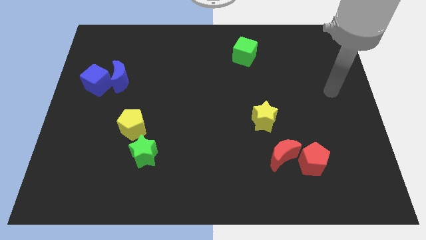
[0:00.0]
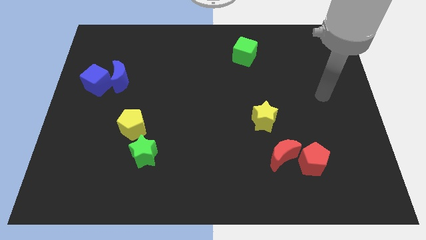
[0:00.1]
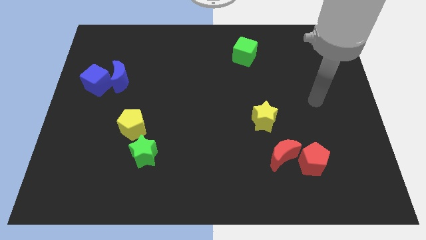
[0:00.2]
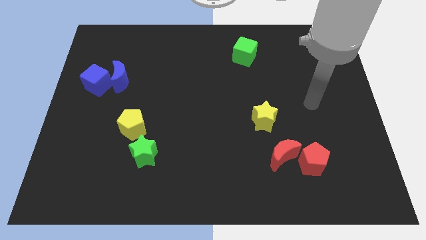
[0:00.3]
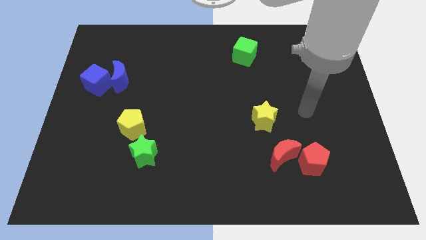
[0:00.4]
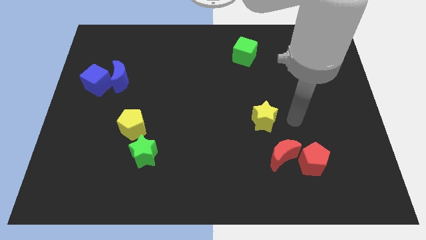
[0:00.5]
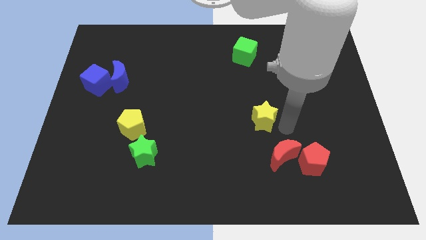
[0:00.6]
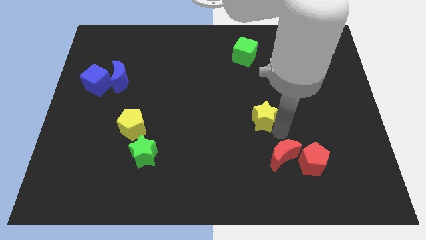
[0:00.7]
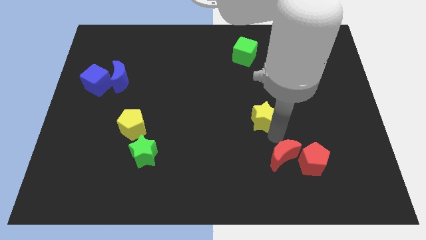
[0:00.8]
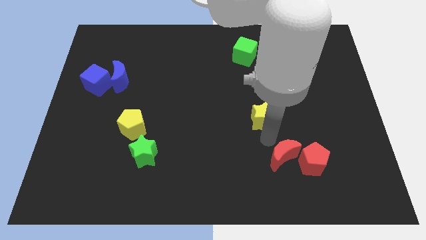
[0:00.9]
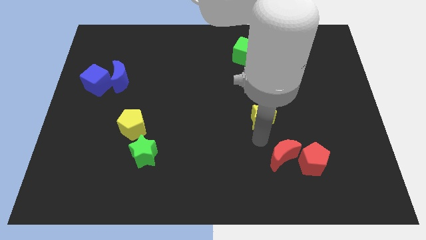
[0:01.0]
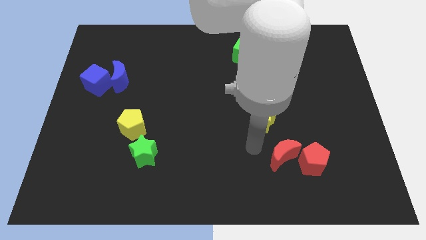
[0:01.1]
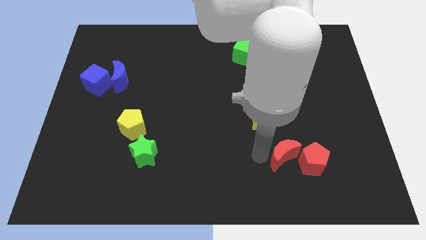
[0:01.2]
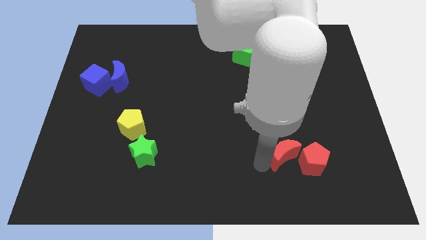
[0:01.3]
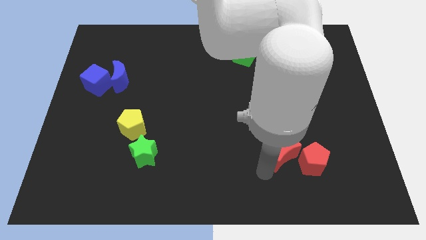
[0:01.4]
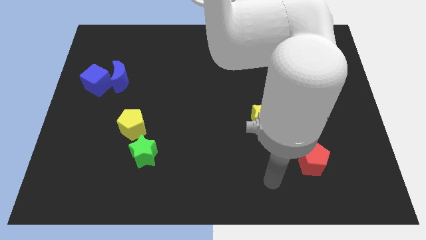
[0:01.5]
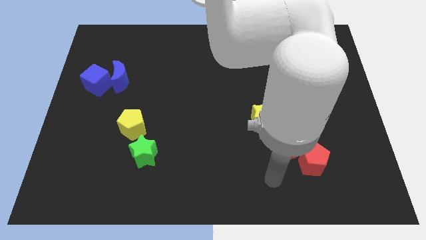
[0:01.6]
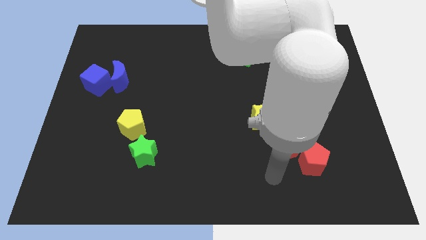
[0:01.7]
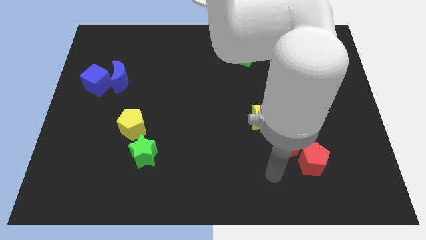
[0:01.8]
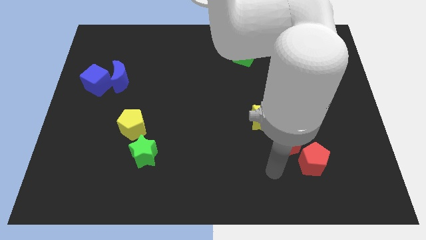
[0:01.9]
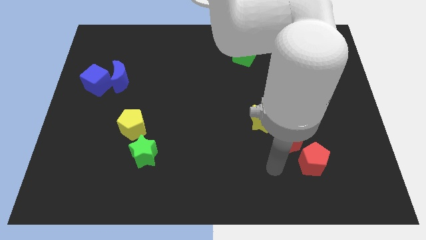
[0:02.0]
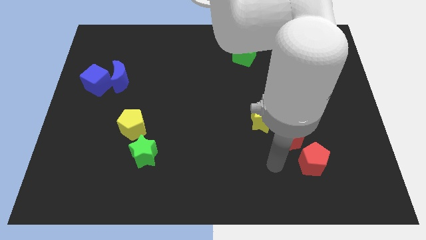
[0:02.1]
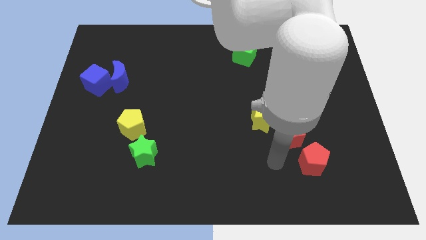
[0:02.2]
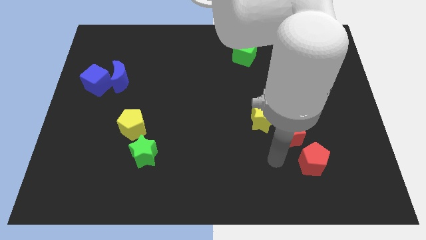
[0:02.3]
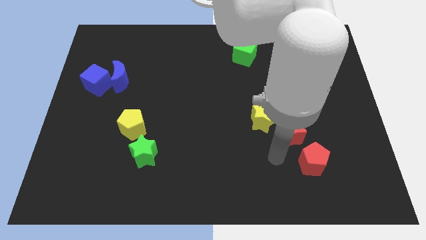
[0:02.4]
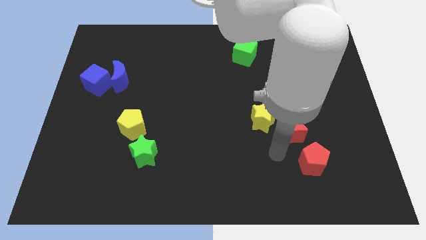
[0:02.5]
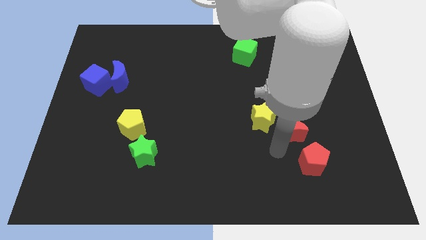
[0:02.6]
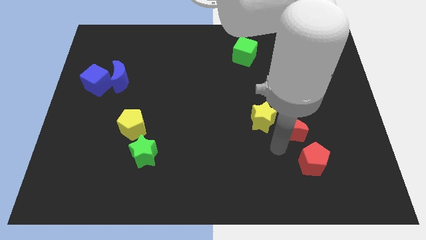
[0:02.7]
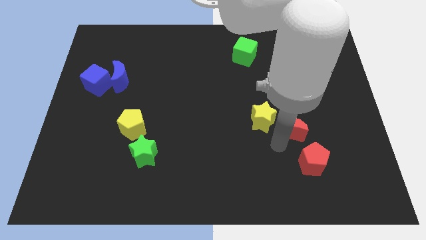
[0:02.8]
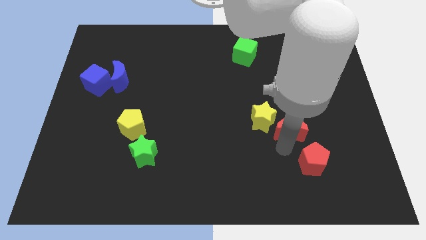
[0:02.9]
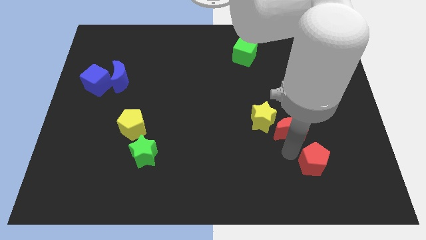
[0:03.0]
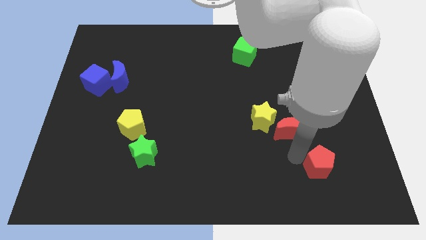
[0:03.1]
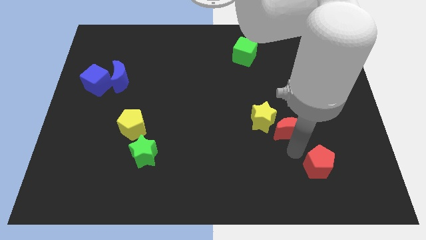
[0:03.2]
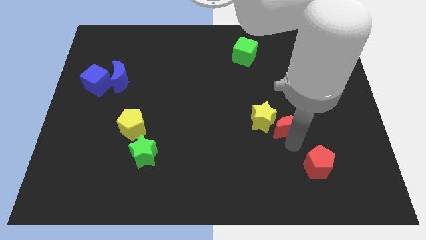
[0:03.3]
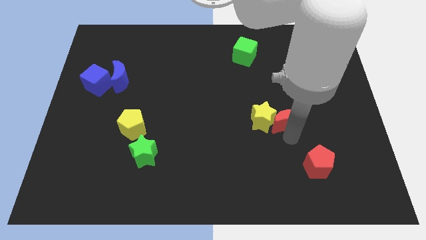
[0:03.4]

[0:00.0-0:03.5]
slide the red moon up slightly

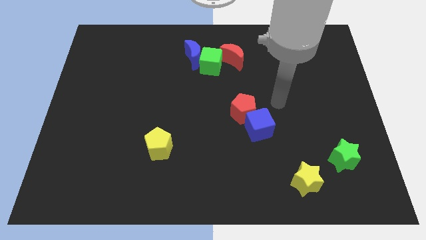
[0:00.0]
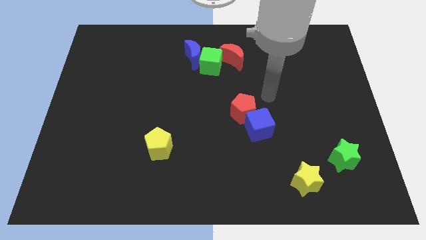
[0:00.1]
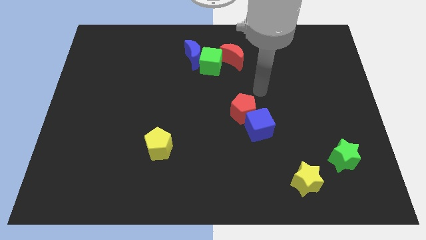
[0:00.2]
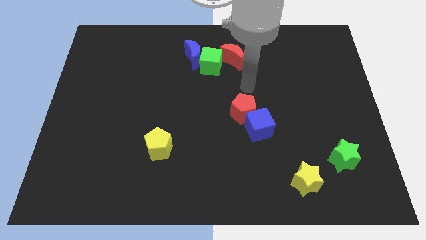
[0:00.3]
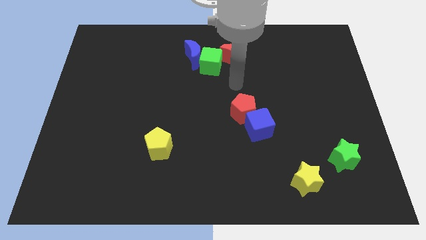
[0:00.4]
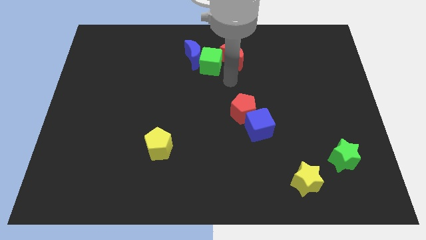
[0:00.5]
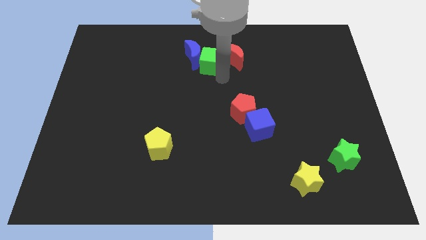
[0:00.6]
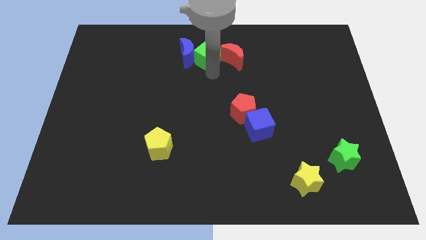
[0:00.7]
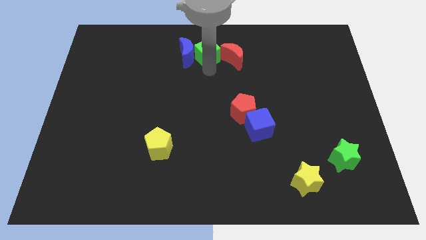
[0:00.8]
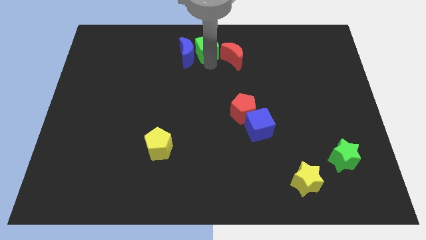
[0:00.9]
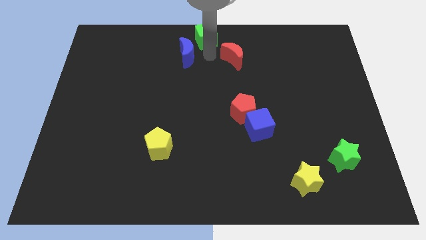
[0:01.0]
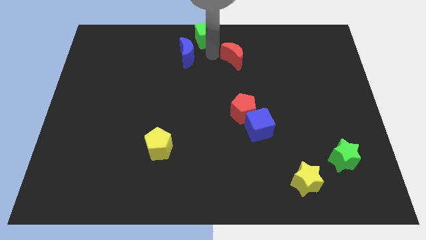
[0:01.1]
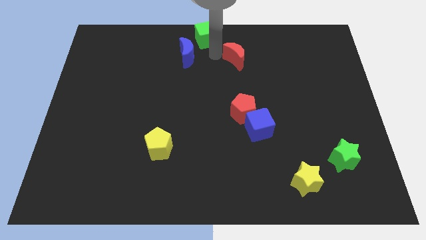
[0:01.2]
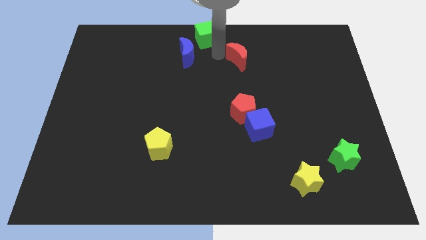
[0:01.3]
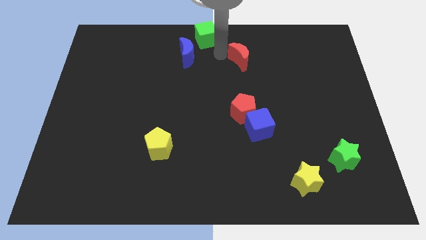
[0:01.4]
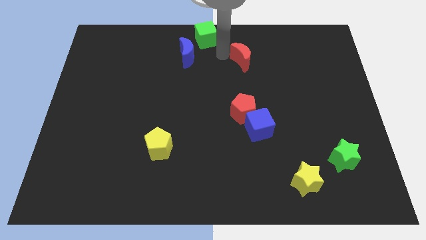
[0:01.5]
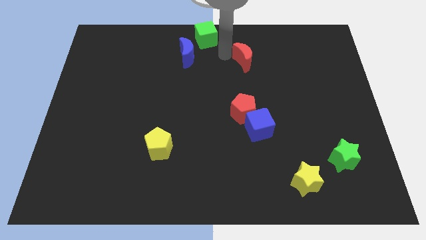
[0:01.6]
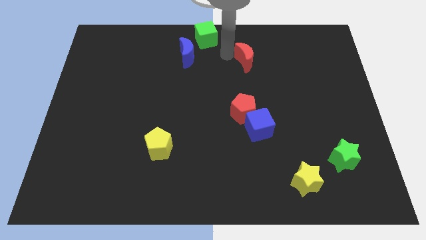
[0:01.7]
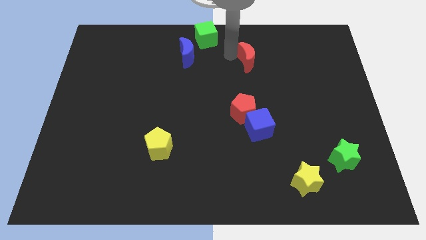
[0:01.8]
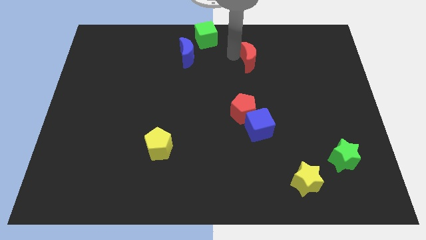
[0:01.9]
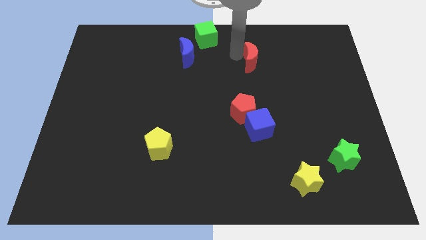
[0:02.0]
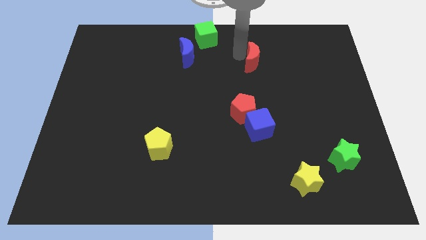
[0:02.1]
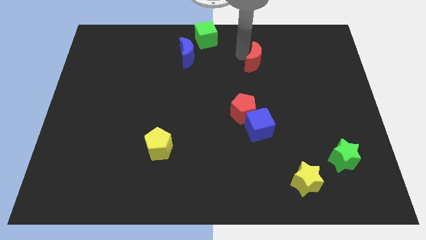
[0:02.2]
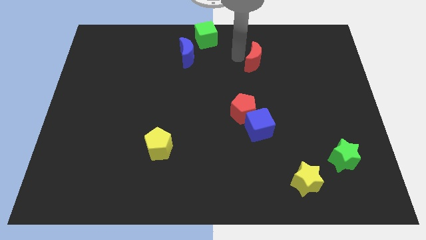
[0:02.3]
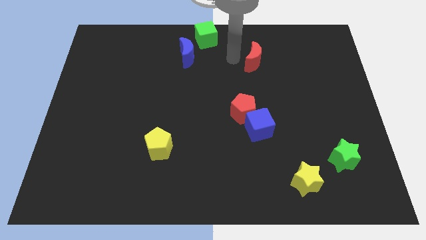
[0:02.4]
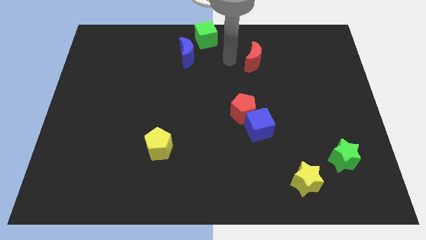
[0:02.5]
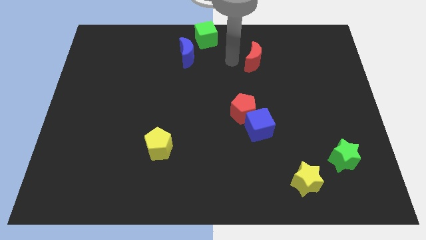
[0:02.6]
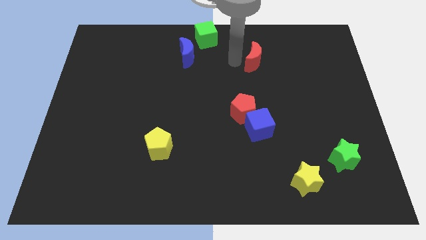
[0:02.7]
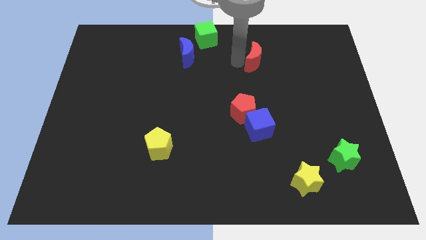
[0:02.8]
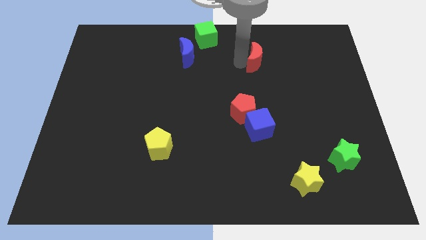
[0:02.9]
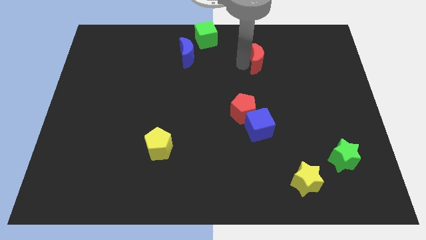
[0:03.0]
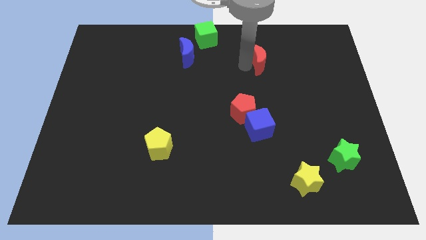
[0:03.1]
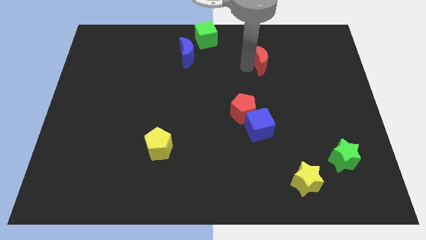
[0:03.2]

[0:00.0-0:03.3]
slightly slide the red moon right

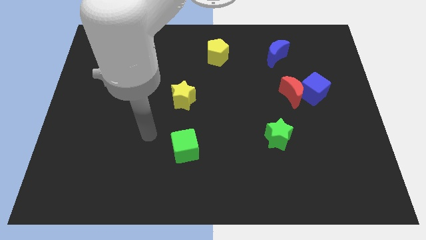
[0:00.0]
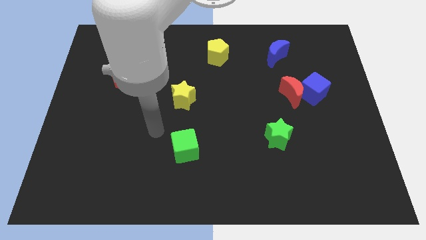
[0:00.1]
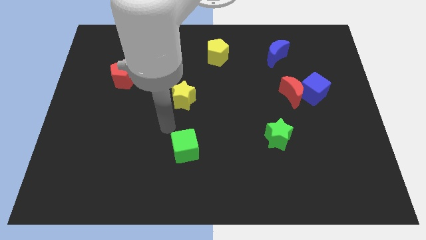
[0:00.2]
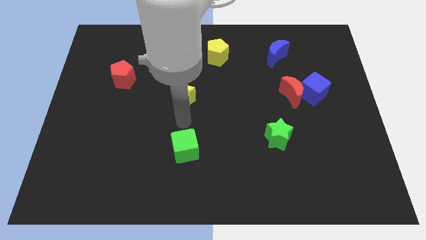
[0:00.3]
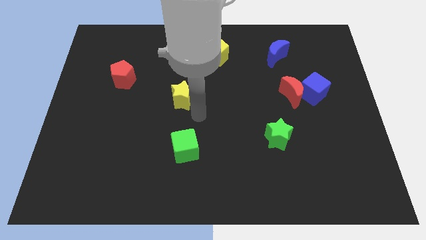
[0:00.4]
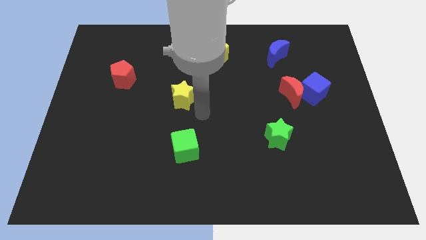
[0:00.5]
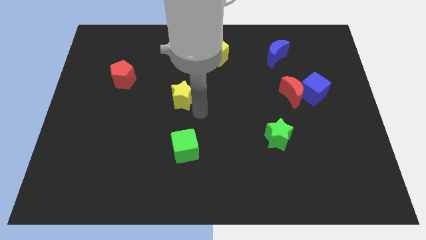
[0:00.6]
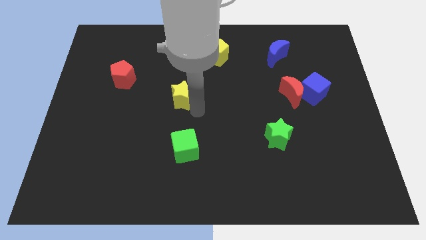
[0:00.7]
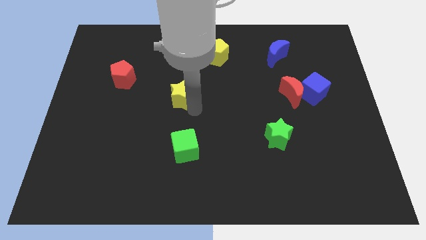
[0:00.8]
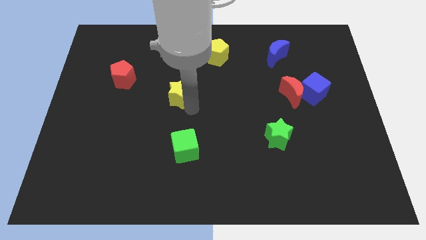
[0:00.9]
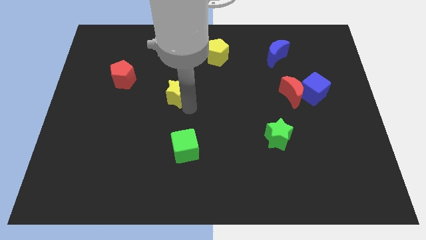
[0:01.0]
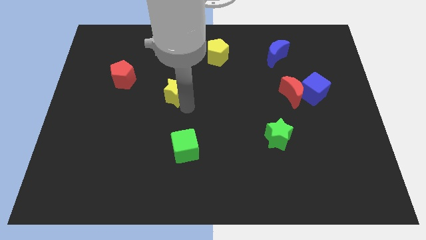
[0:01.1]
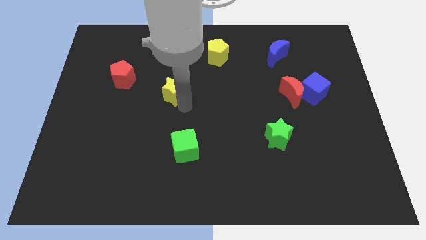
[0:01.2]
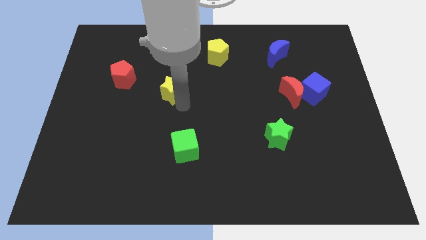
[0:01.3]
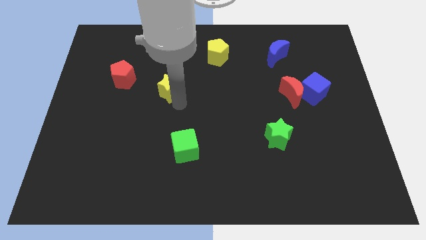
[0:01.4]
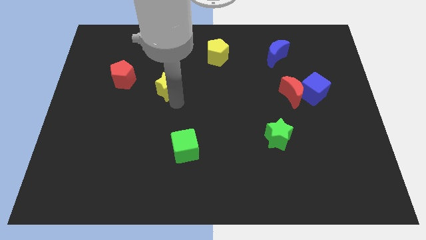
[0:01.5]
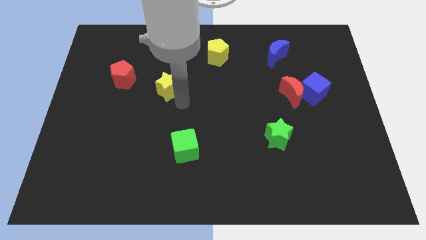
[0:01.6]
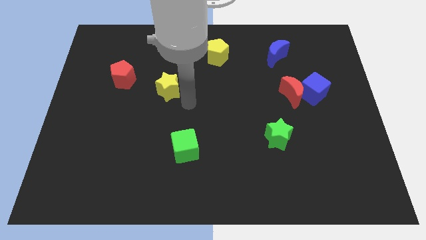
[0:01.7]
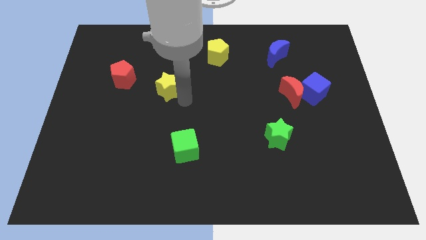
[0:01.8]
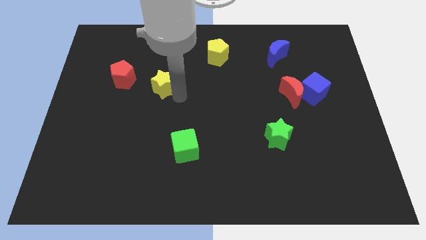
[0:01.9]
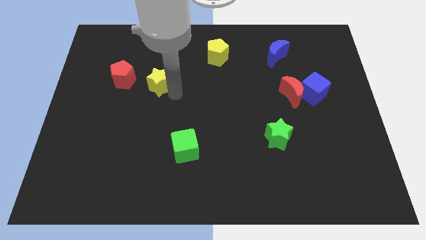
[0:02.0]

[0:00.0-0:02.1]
slightly slide the yellow star upwards and then to the left
